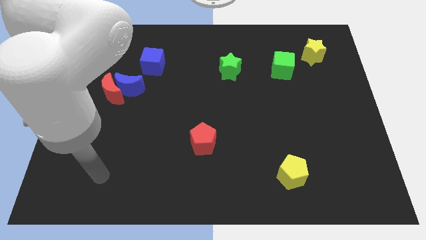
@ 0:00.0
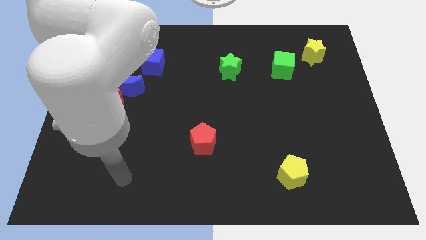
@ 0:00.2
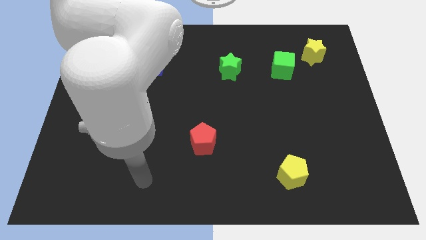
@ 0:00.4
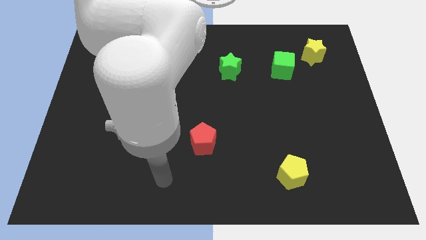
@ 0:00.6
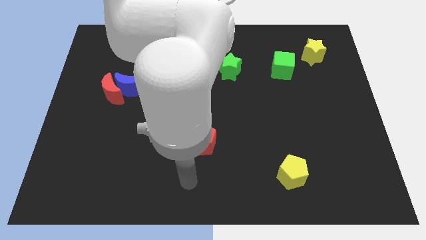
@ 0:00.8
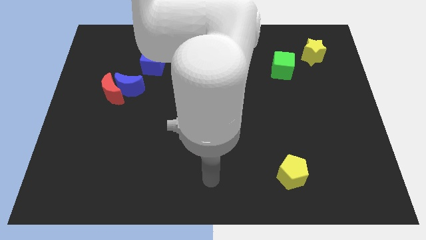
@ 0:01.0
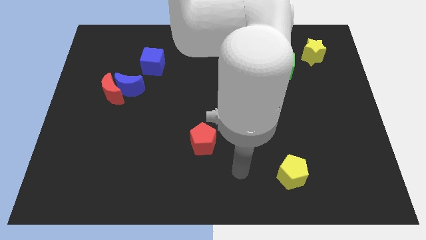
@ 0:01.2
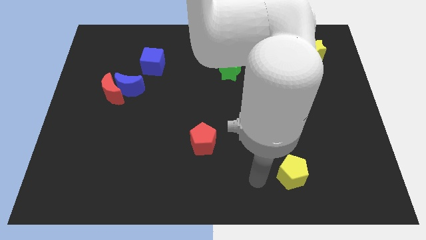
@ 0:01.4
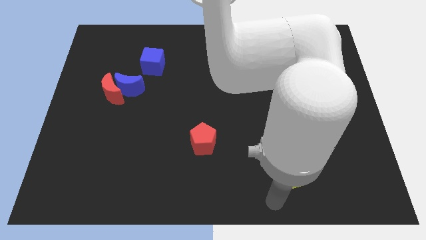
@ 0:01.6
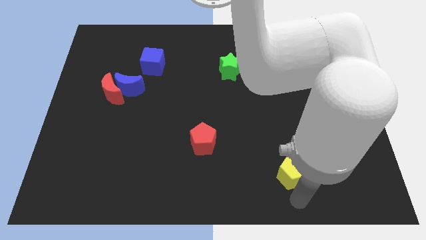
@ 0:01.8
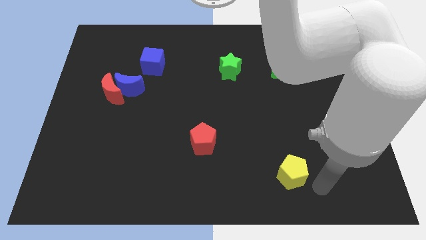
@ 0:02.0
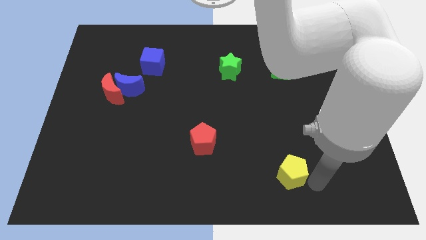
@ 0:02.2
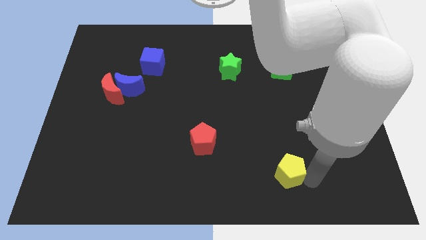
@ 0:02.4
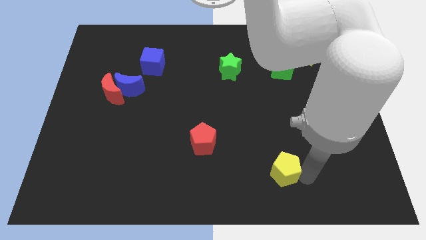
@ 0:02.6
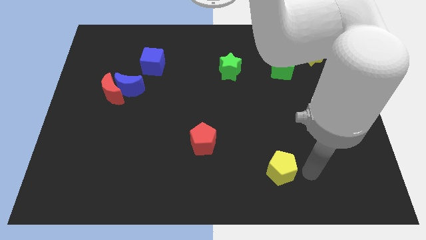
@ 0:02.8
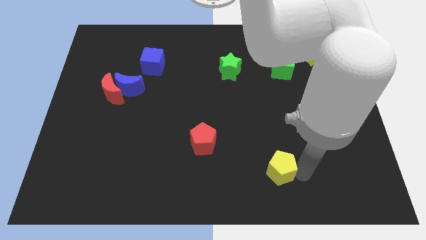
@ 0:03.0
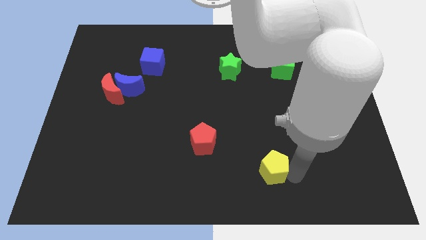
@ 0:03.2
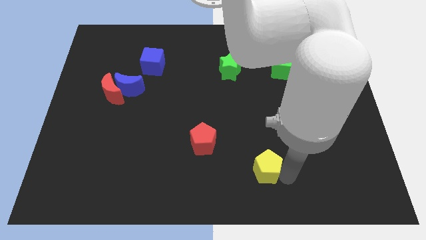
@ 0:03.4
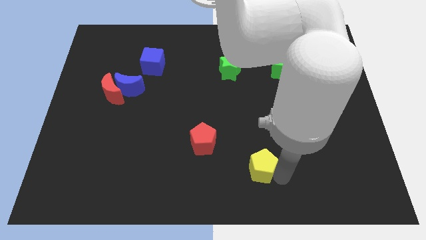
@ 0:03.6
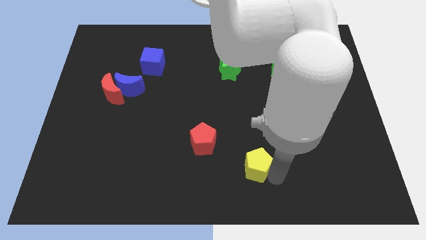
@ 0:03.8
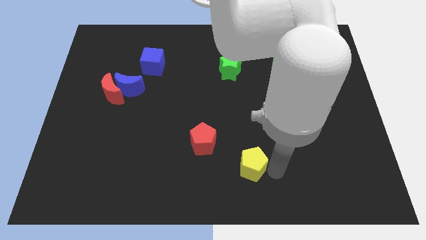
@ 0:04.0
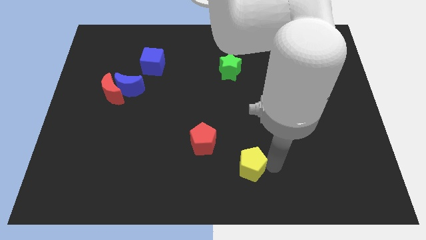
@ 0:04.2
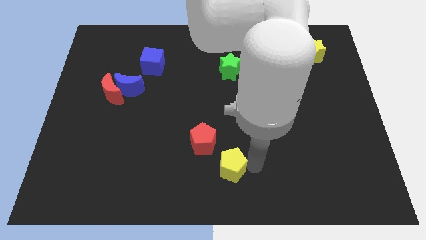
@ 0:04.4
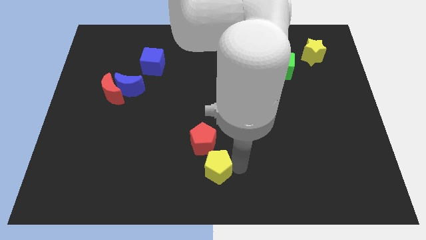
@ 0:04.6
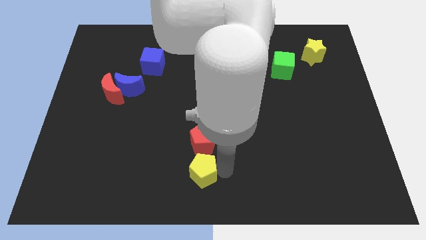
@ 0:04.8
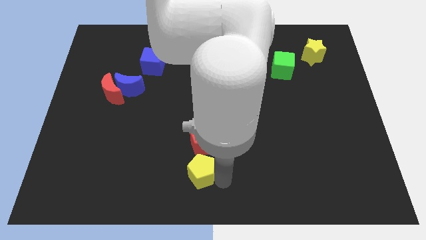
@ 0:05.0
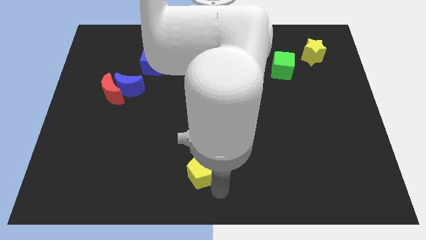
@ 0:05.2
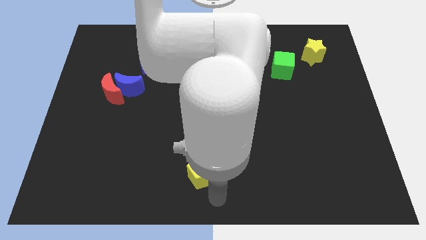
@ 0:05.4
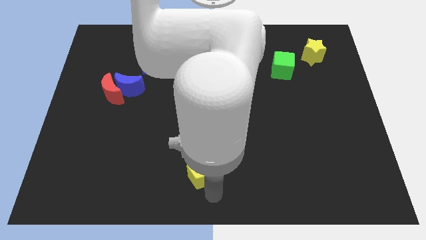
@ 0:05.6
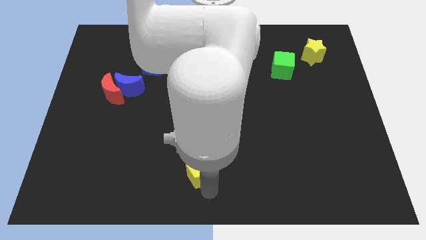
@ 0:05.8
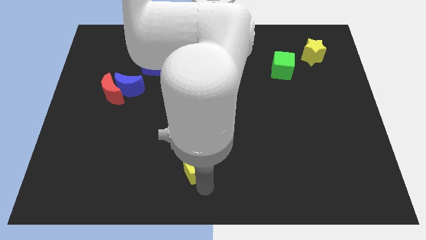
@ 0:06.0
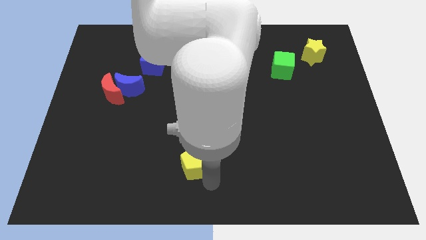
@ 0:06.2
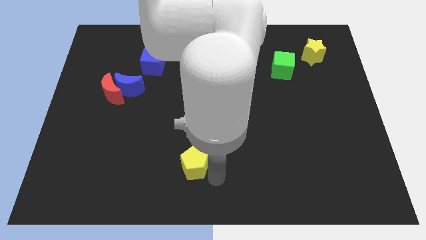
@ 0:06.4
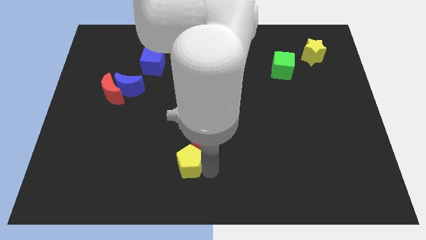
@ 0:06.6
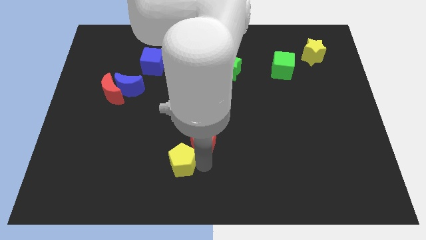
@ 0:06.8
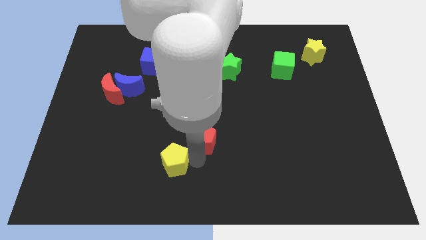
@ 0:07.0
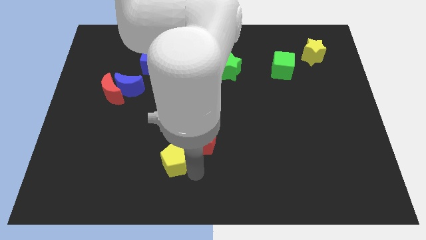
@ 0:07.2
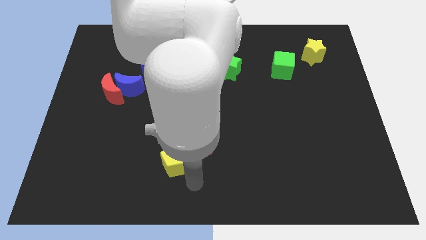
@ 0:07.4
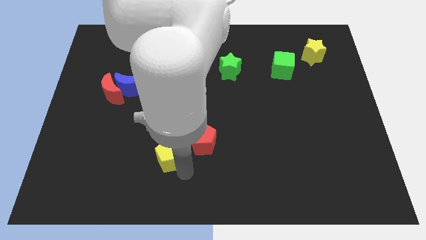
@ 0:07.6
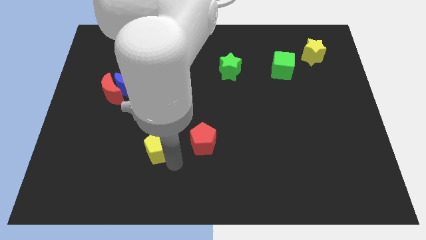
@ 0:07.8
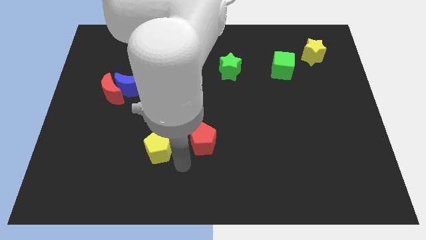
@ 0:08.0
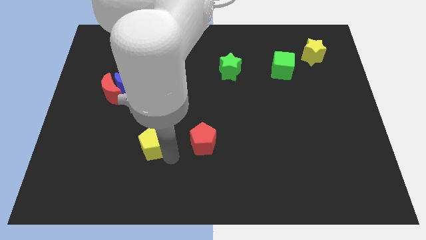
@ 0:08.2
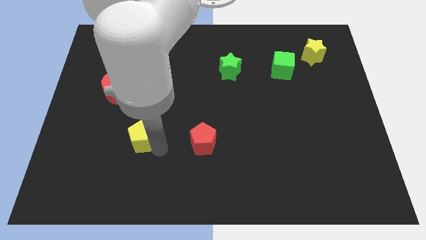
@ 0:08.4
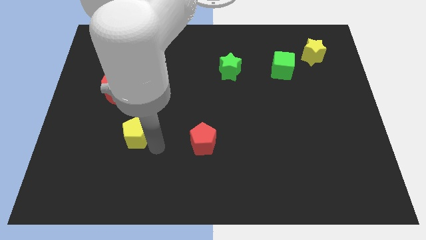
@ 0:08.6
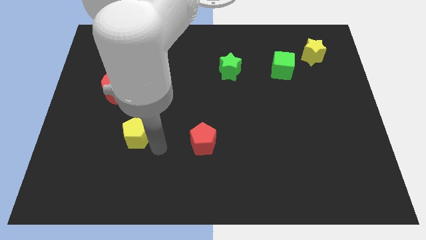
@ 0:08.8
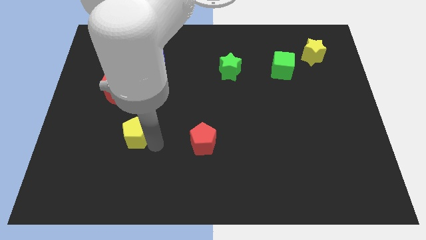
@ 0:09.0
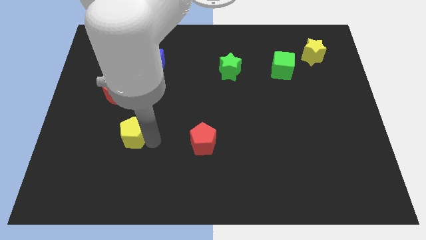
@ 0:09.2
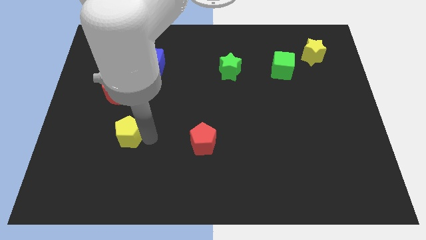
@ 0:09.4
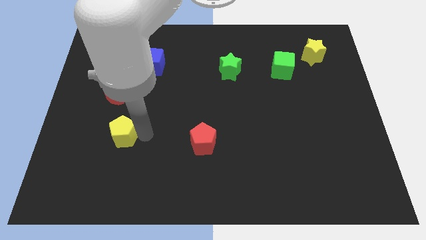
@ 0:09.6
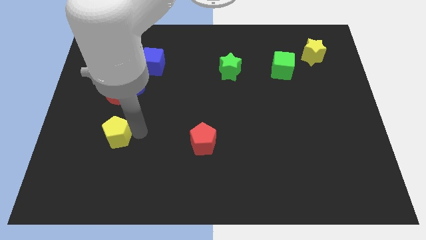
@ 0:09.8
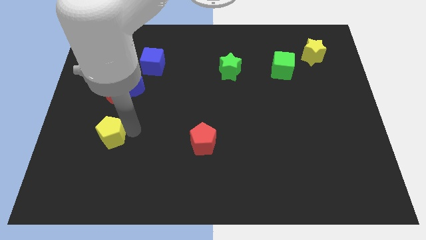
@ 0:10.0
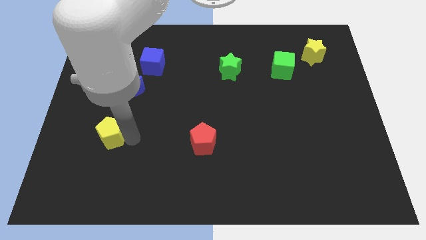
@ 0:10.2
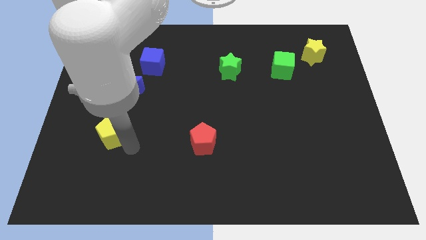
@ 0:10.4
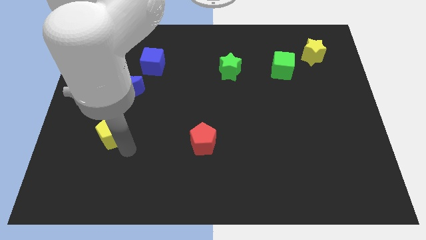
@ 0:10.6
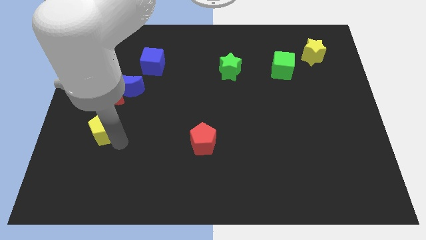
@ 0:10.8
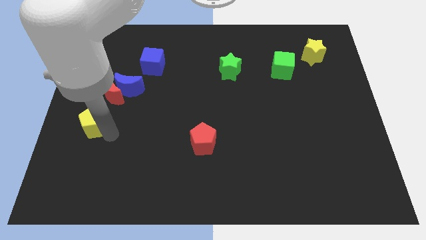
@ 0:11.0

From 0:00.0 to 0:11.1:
slide the yellow pentagon to the center left
